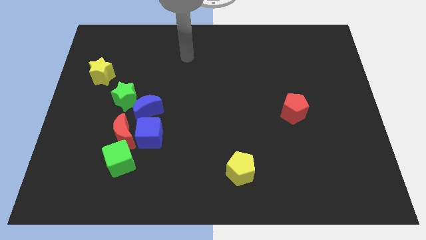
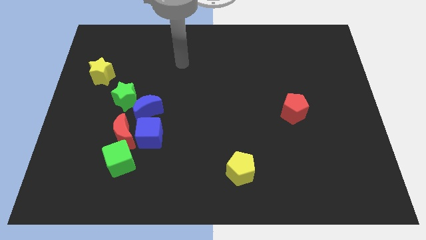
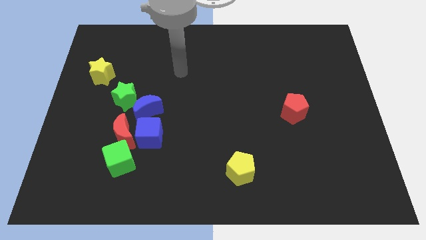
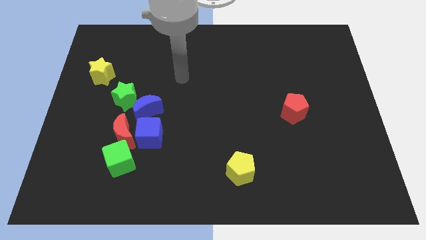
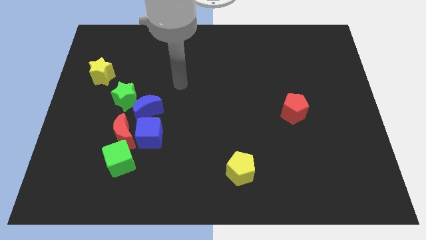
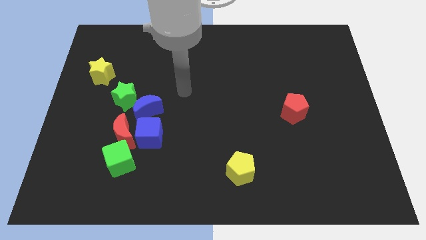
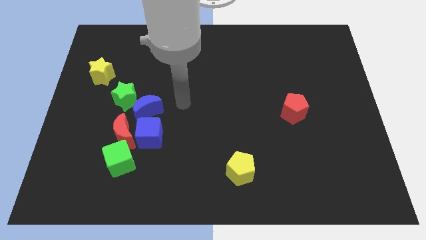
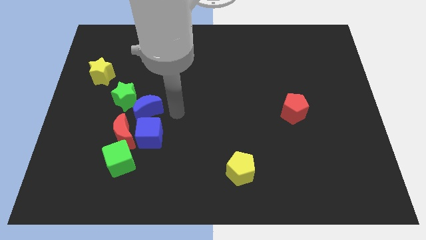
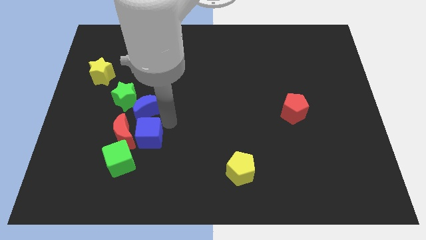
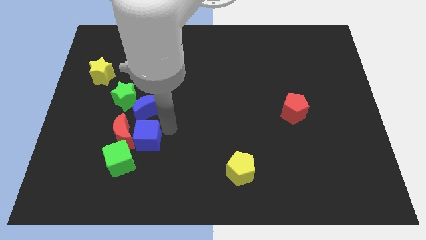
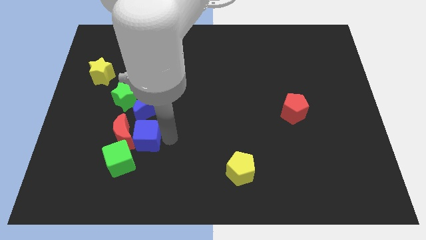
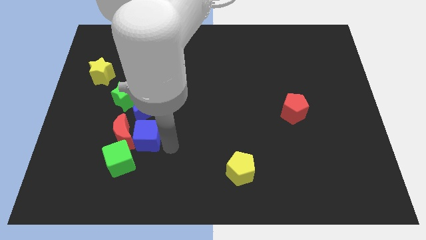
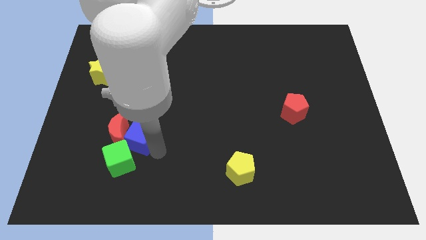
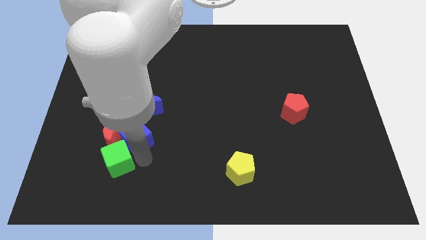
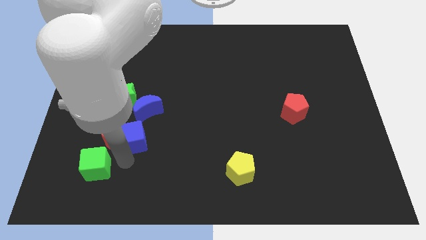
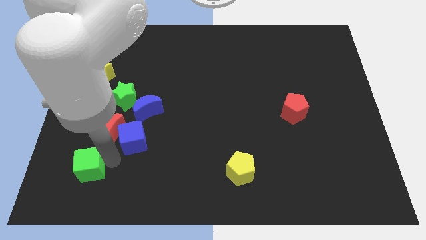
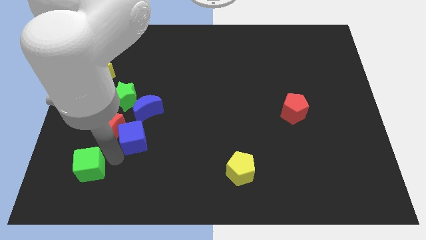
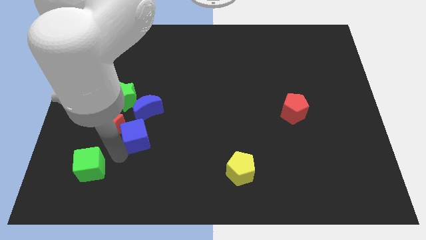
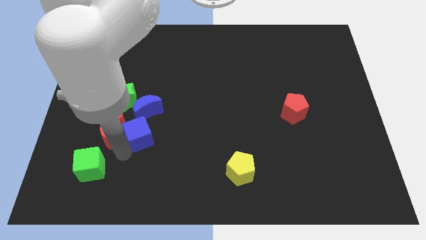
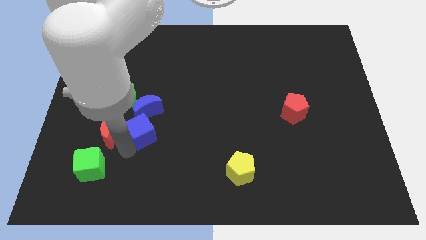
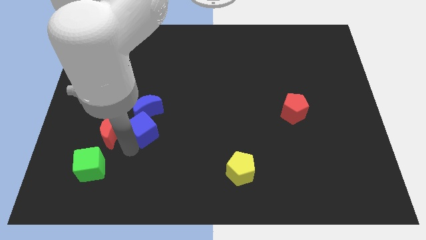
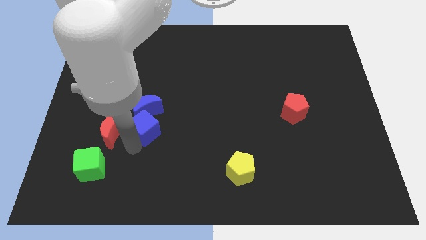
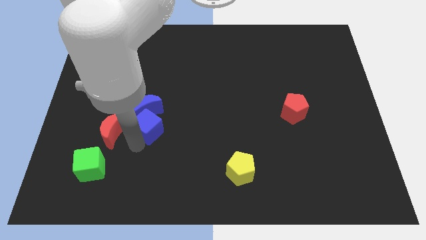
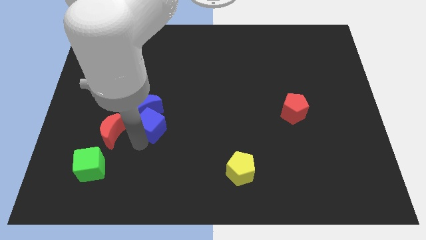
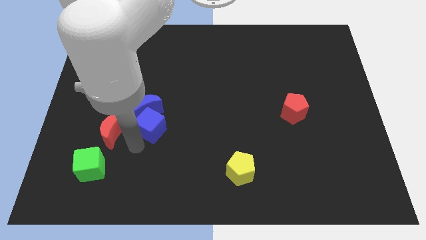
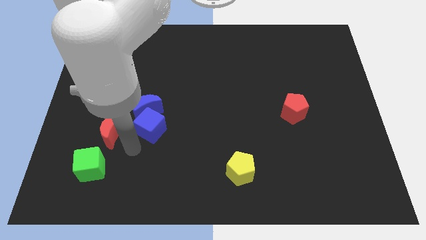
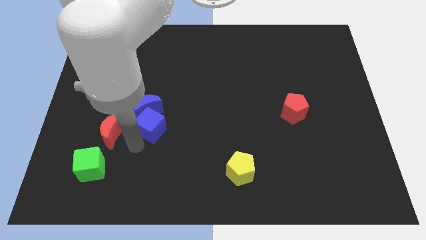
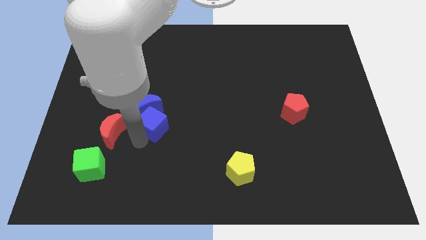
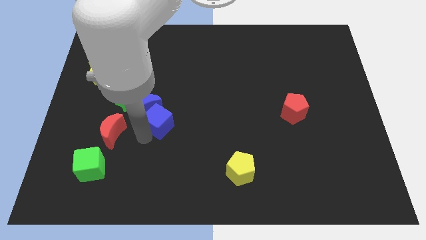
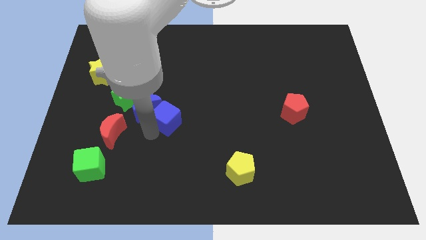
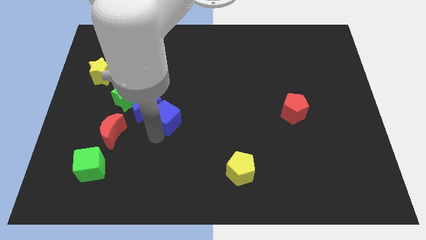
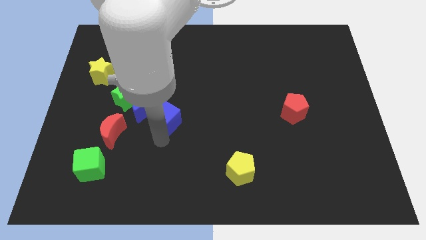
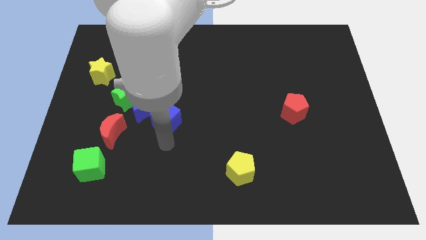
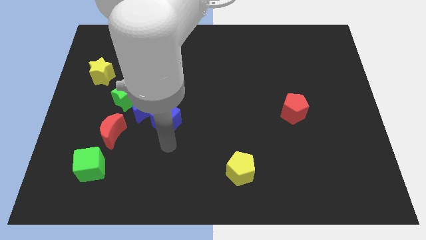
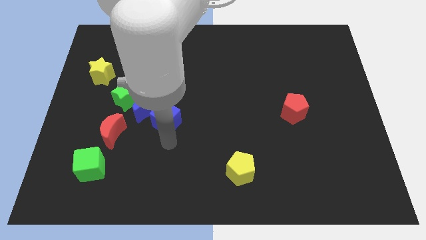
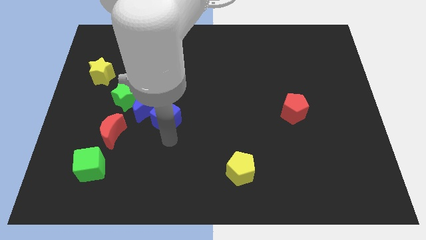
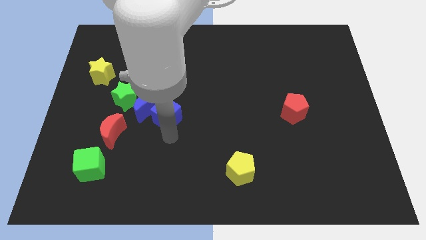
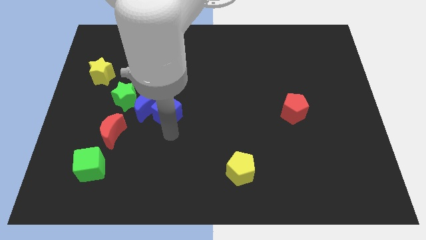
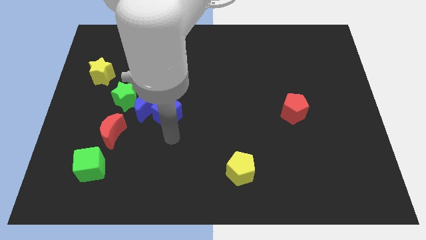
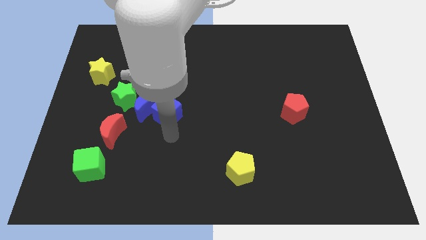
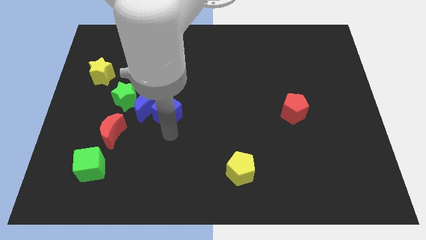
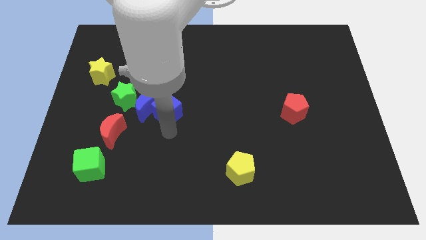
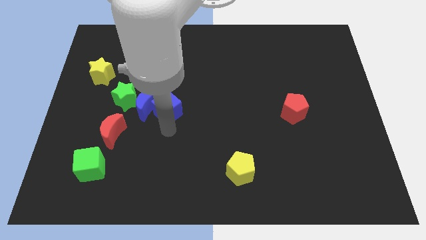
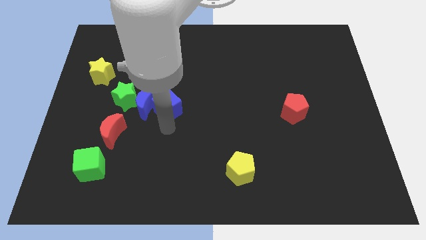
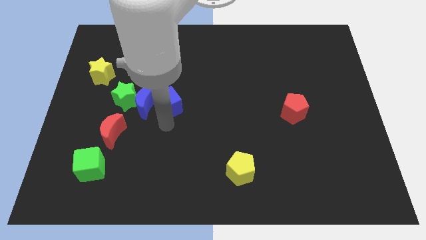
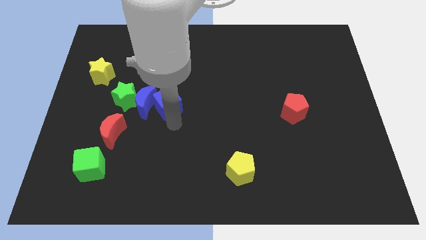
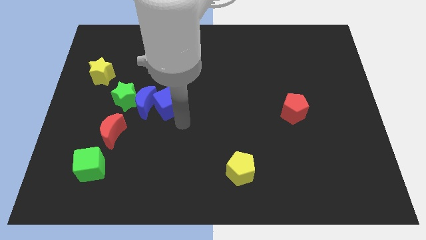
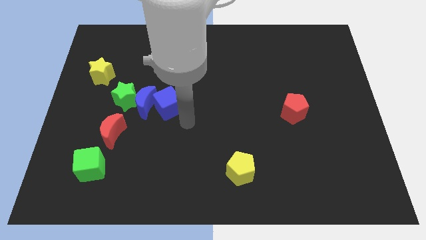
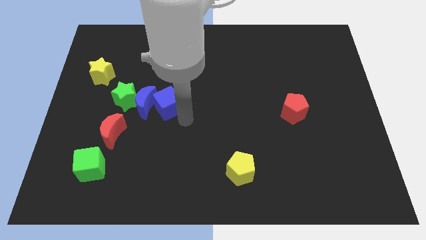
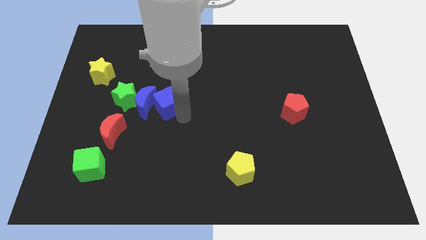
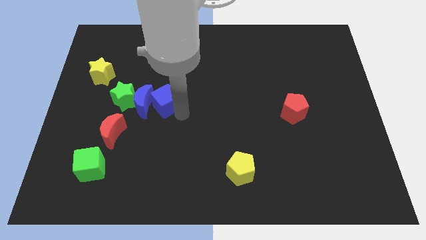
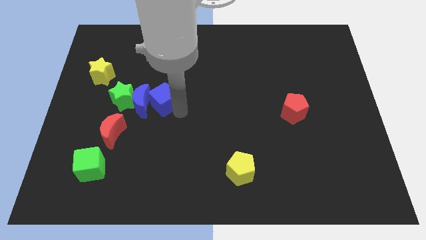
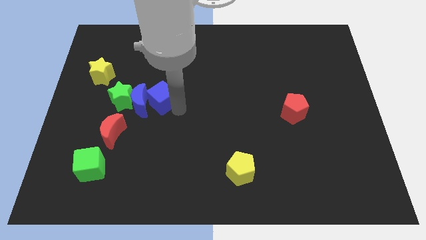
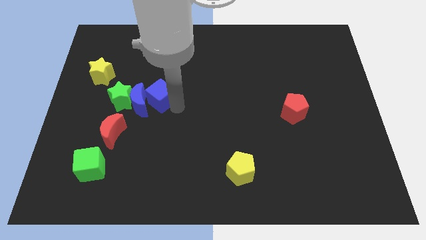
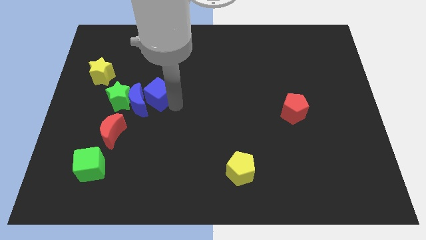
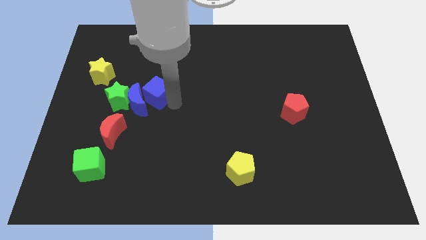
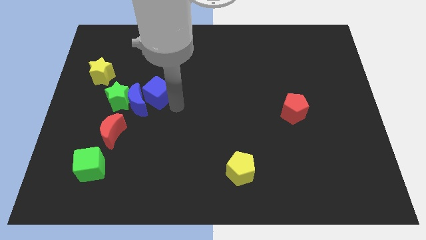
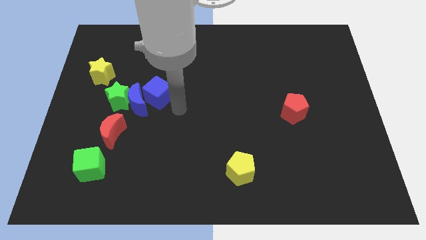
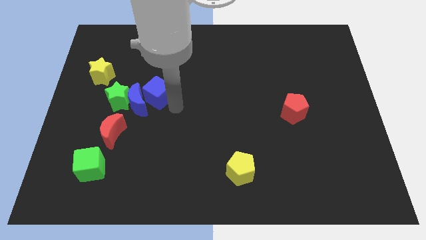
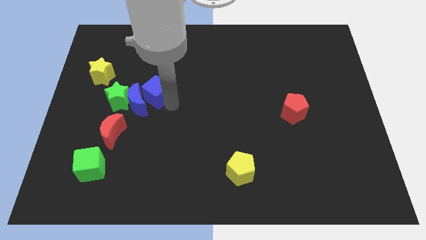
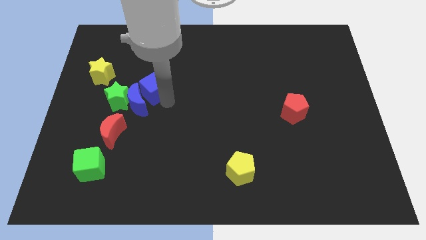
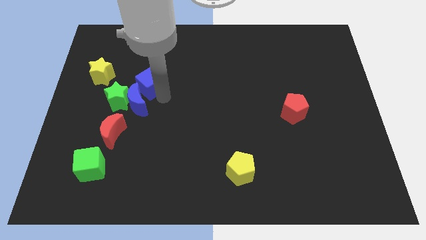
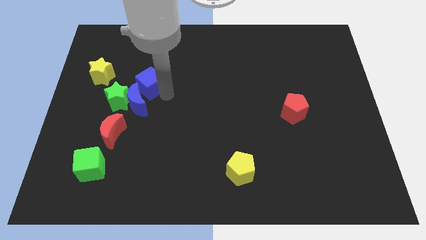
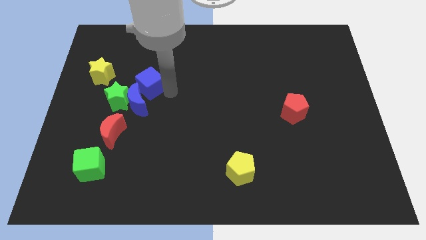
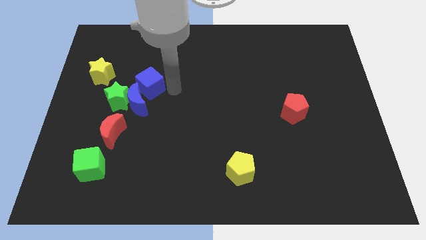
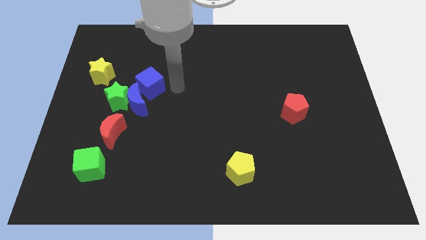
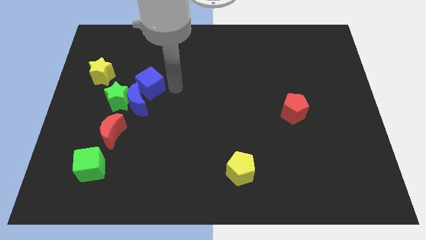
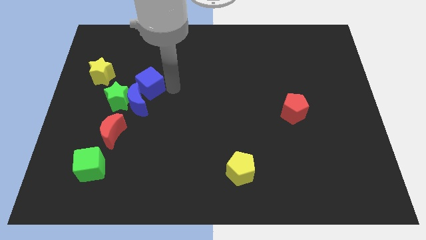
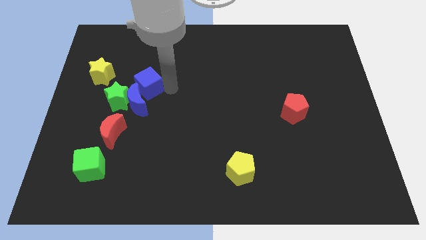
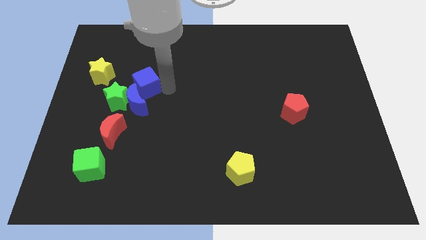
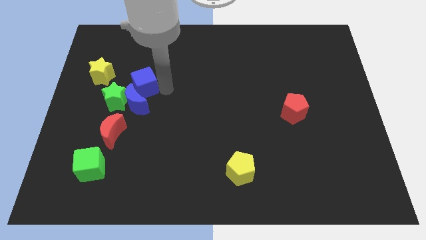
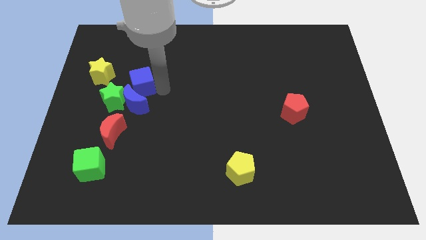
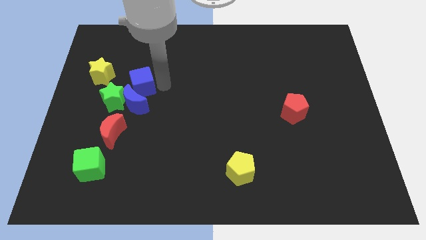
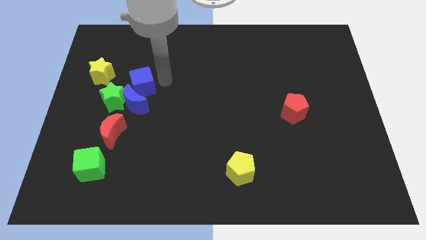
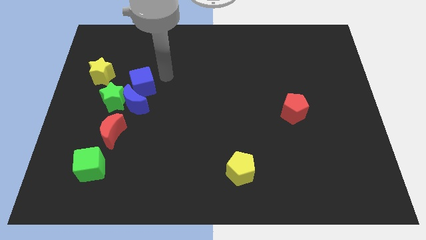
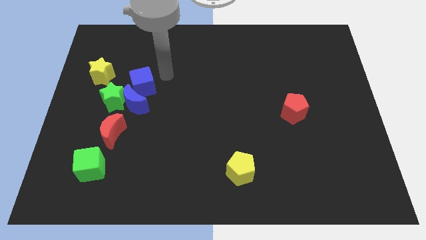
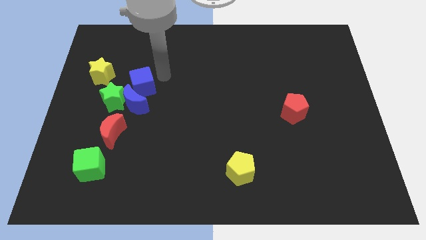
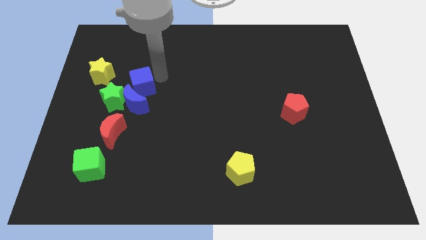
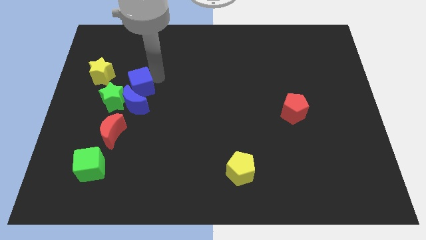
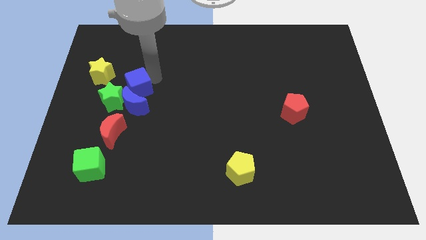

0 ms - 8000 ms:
slide the blue cube above the red moon
